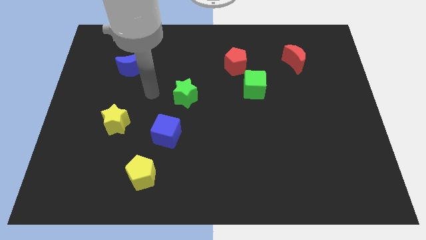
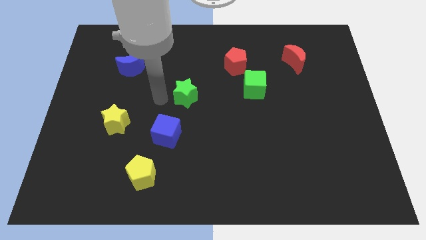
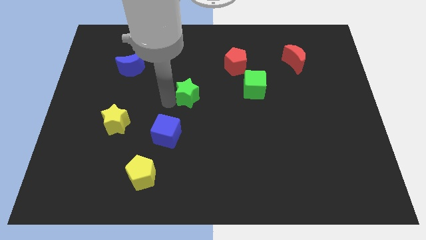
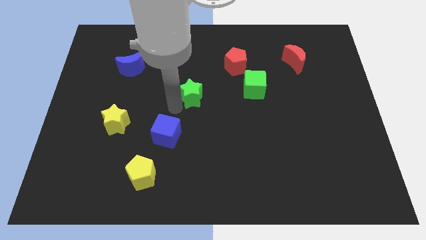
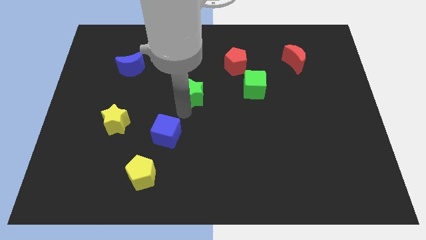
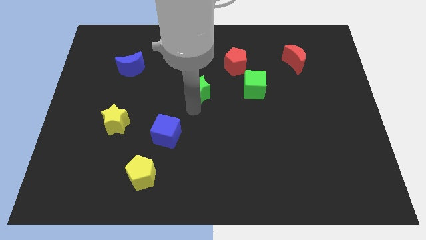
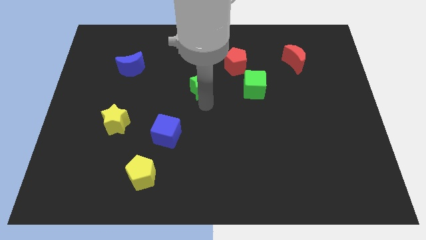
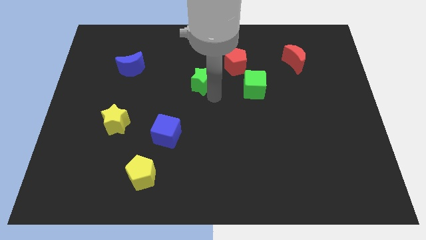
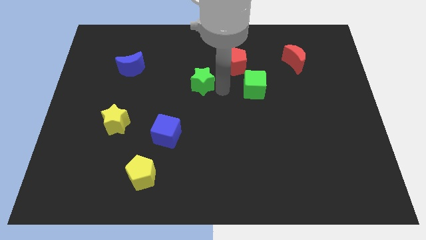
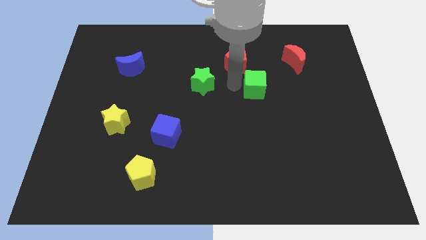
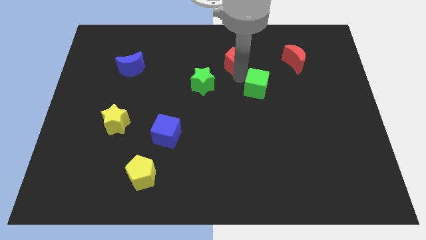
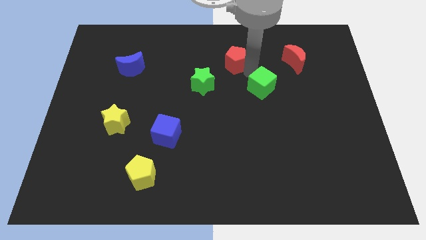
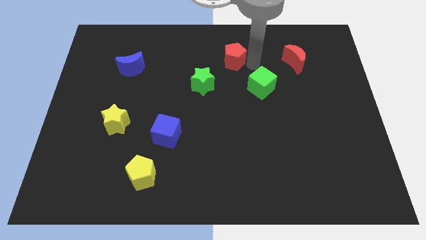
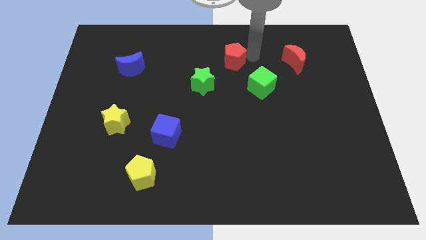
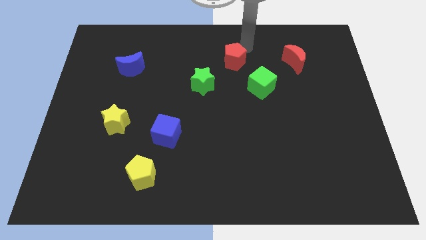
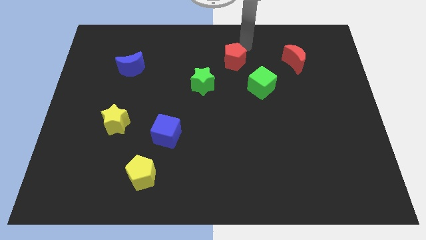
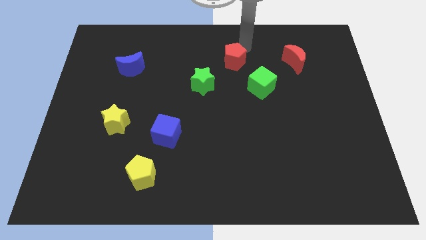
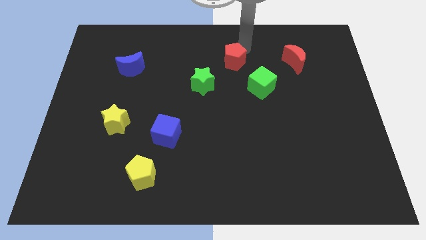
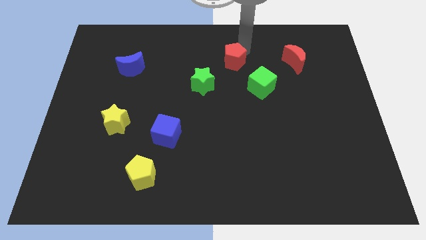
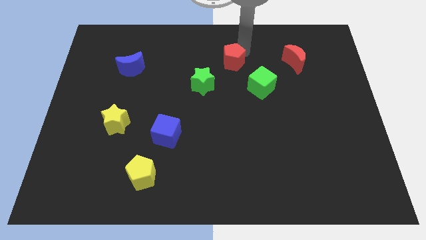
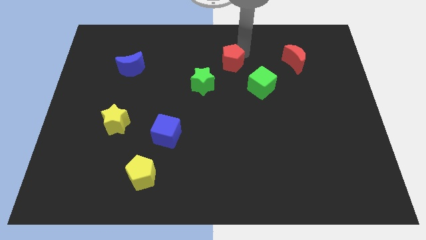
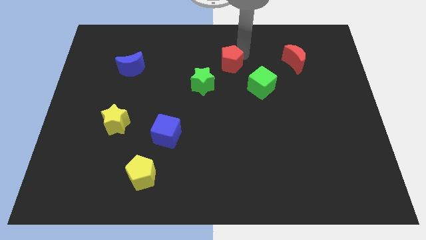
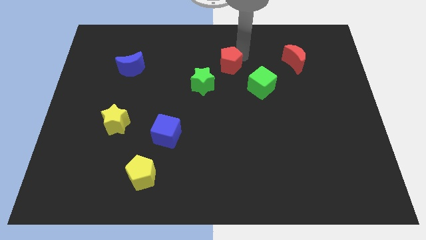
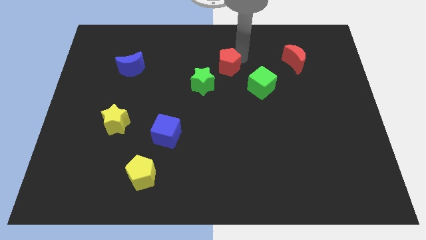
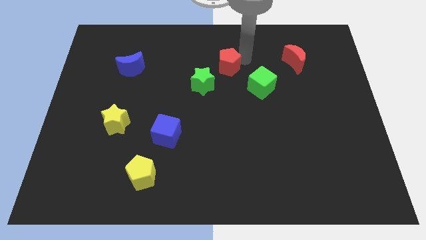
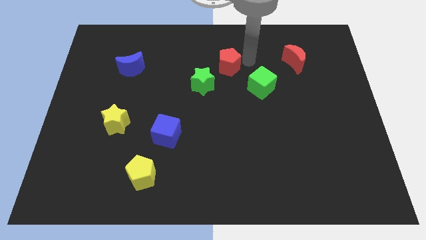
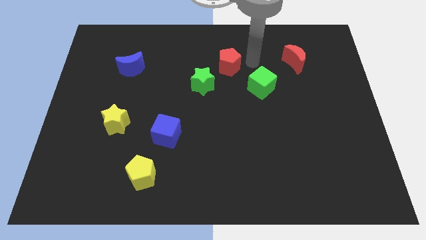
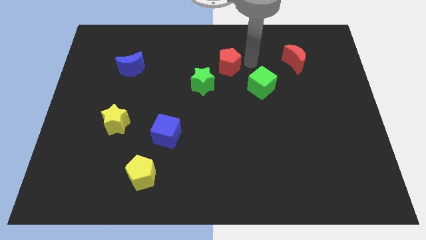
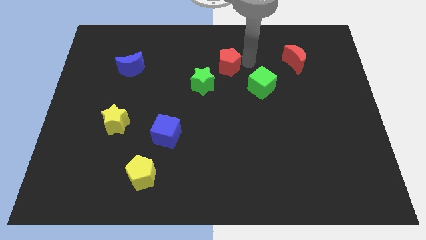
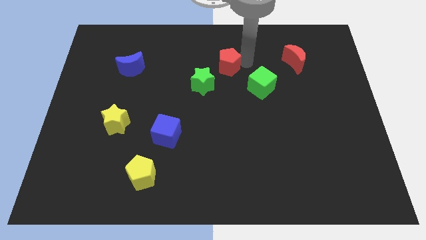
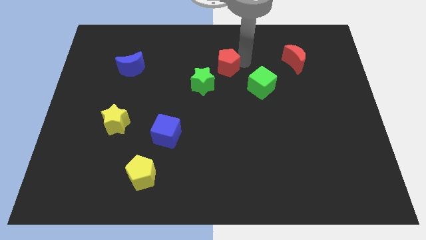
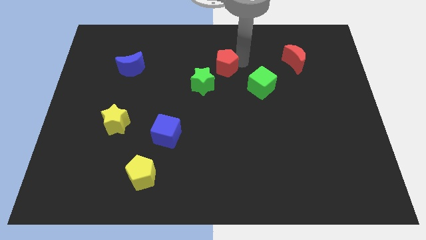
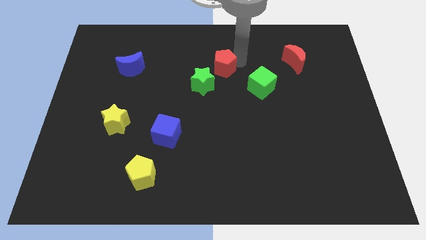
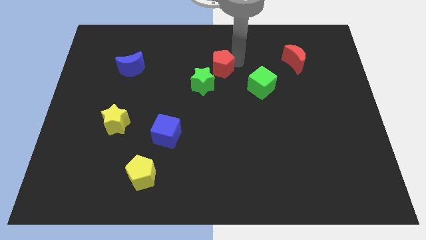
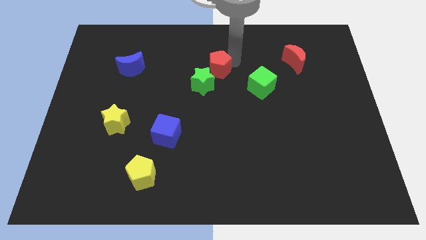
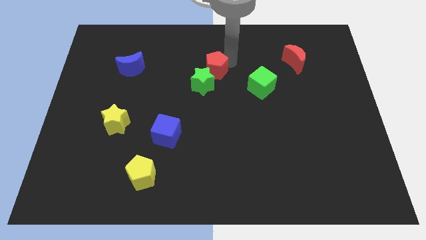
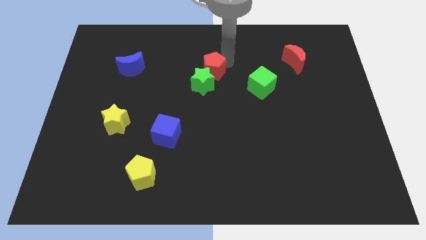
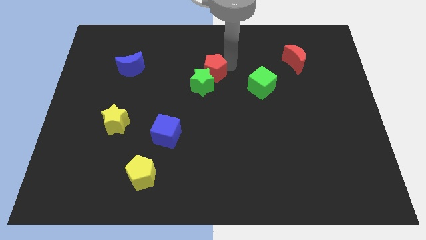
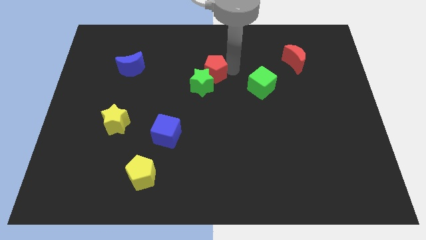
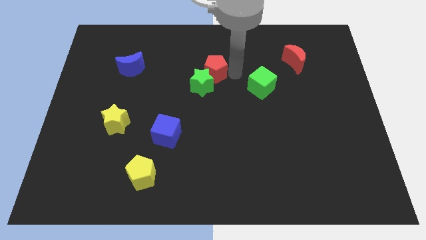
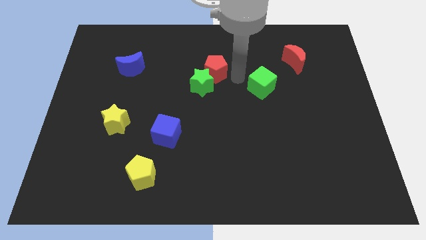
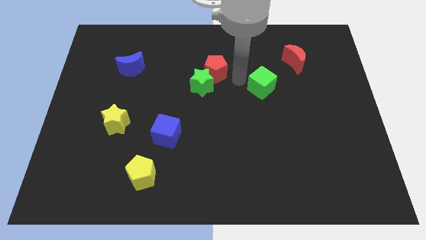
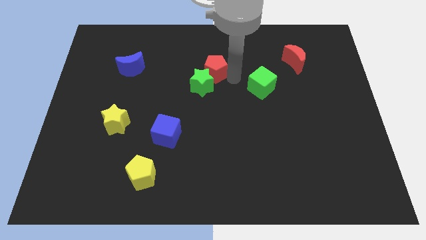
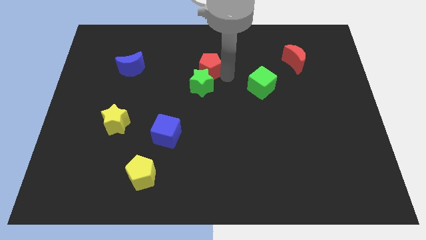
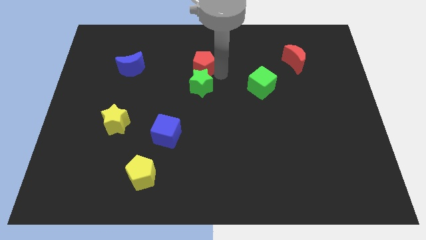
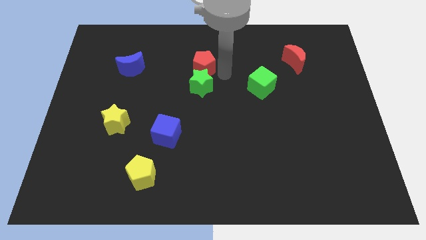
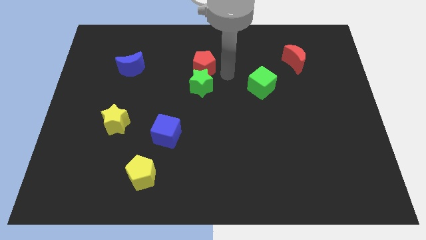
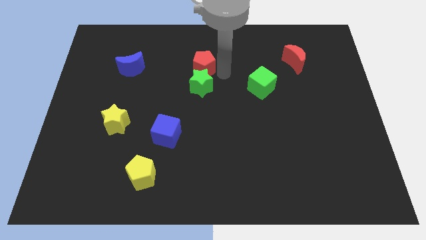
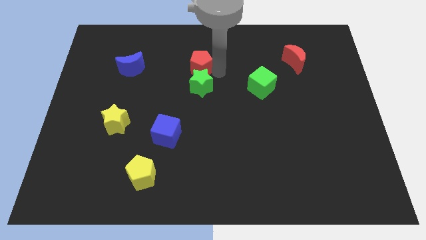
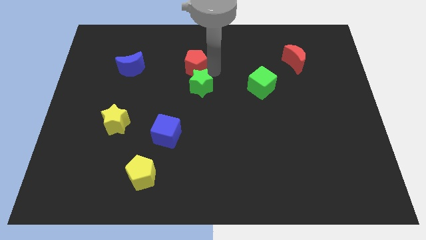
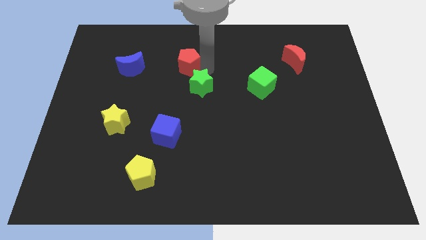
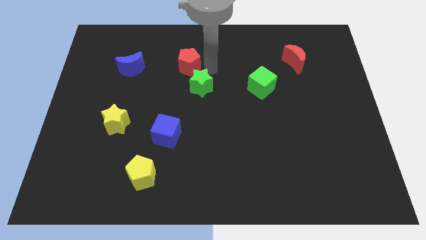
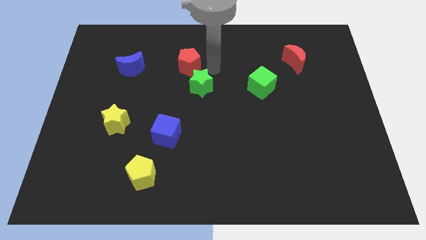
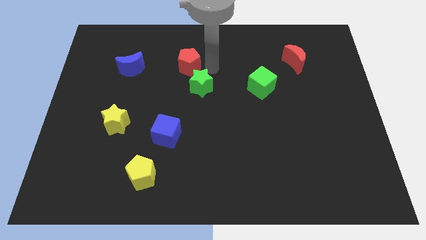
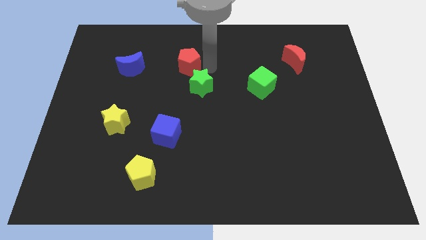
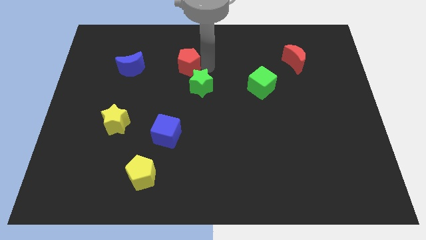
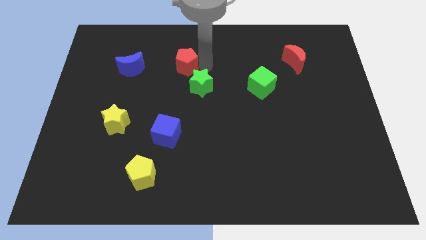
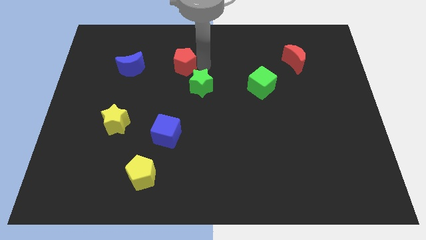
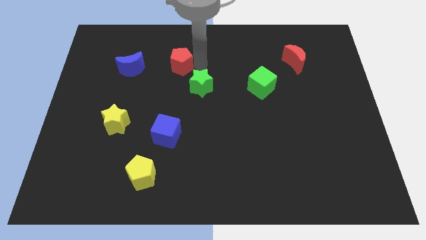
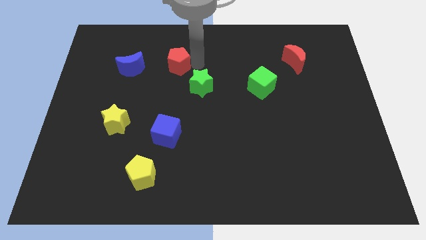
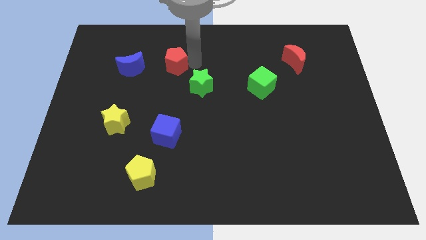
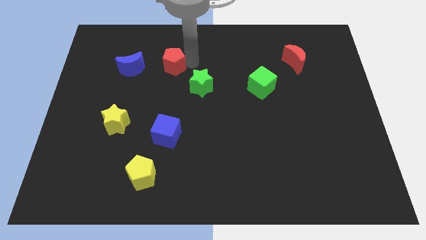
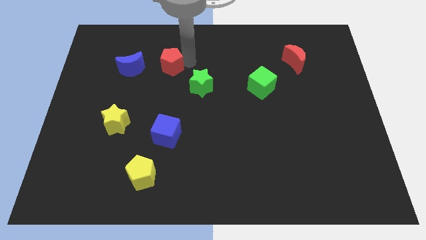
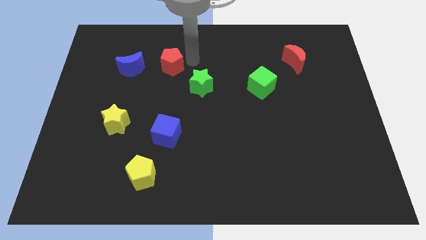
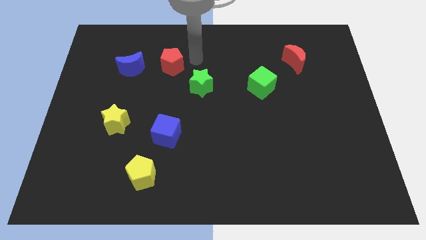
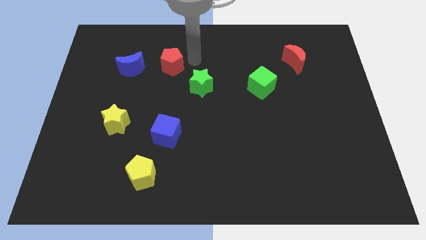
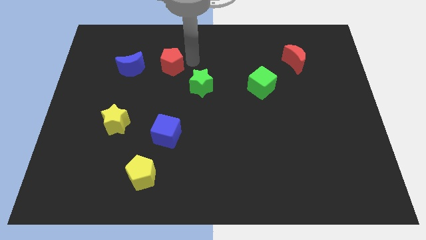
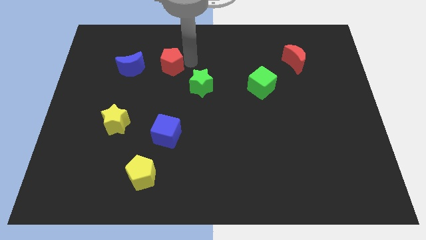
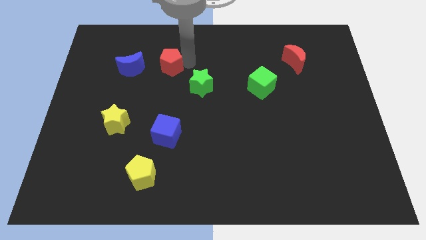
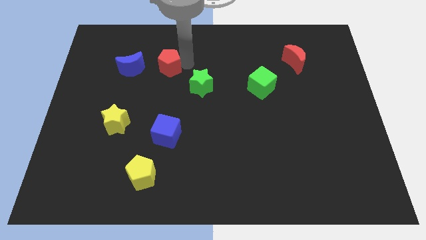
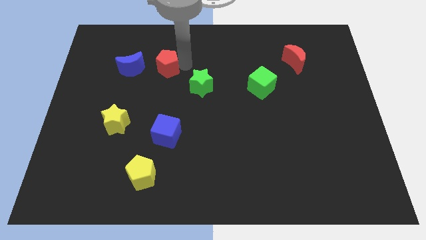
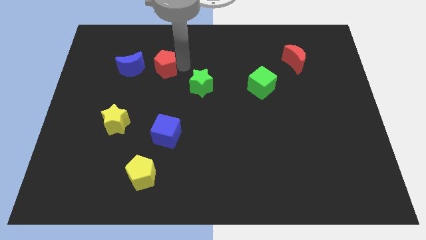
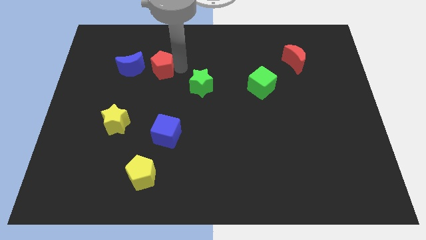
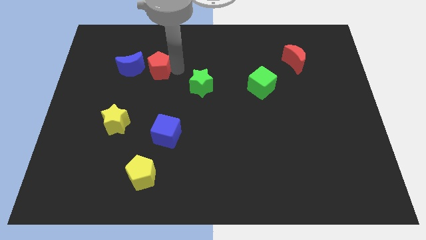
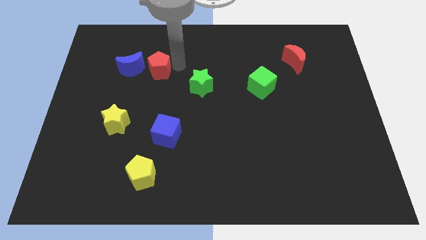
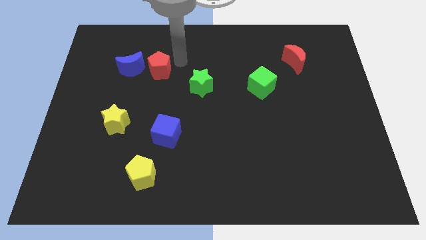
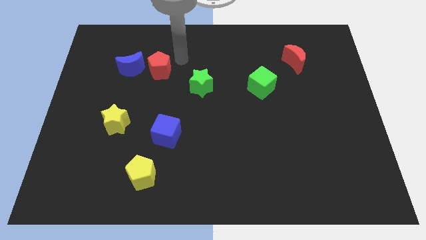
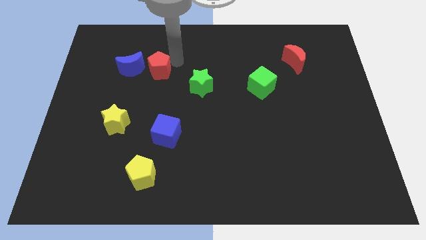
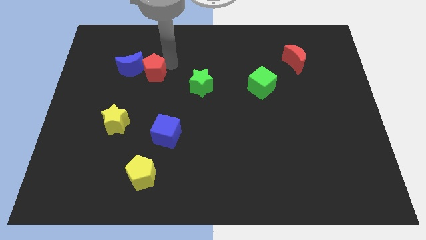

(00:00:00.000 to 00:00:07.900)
slide the red pentagon to the left
